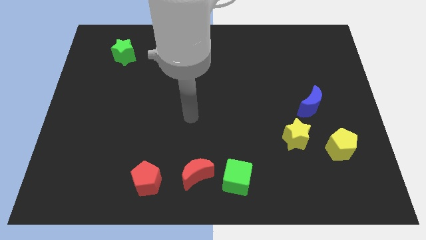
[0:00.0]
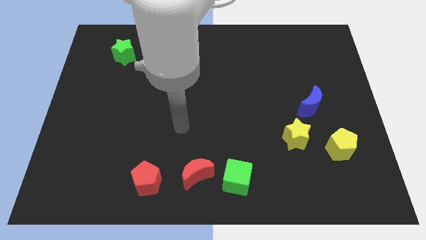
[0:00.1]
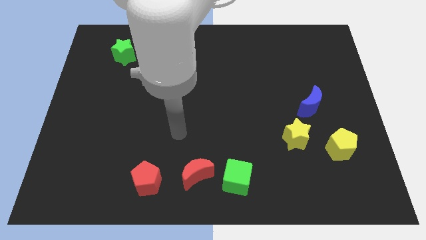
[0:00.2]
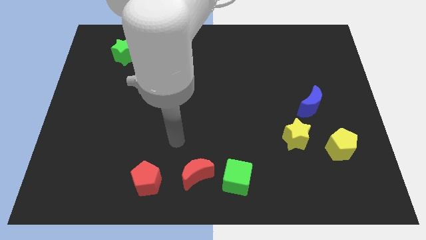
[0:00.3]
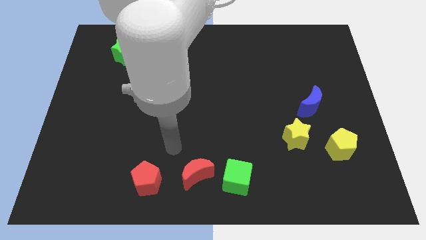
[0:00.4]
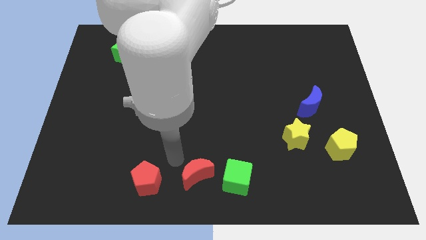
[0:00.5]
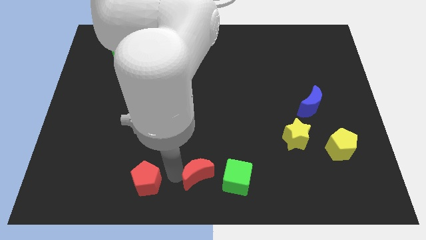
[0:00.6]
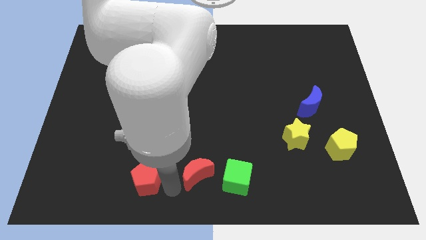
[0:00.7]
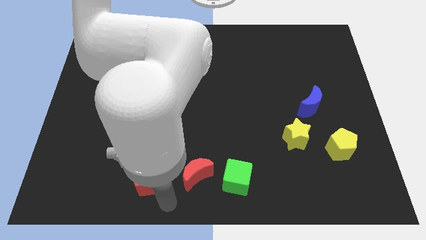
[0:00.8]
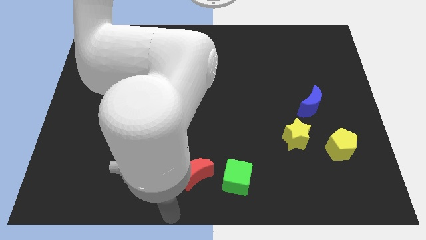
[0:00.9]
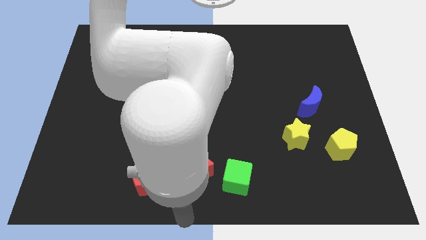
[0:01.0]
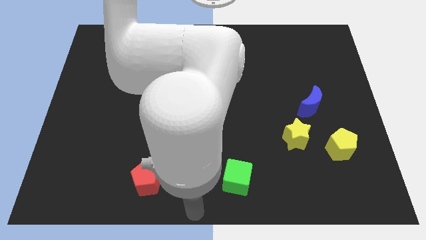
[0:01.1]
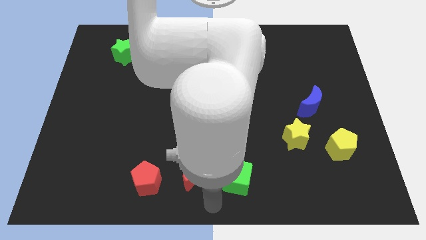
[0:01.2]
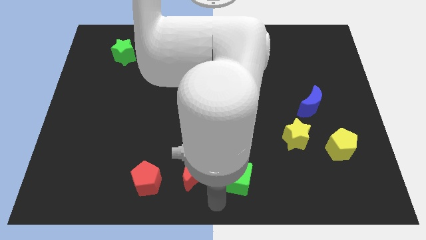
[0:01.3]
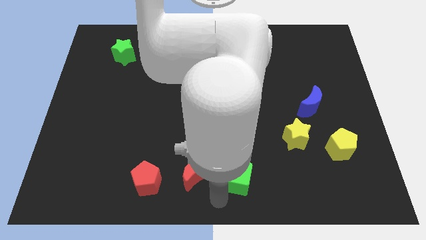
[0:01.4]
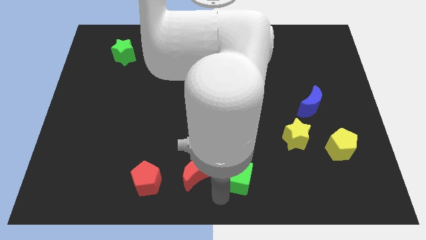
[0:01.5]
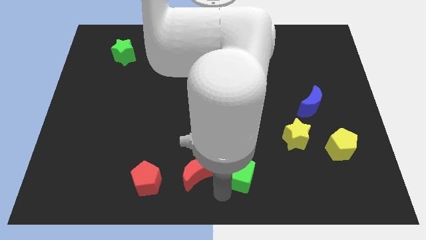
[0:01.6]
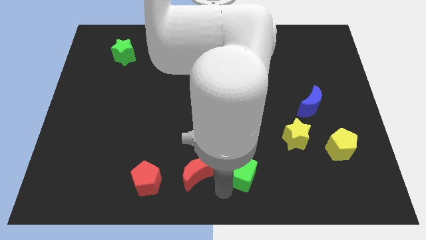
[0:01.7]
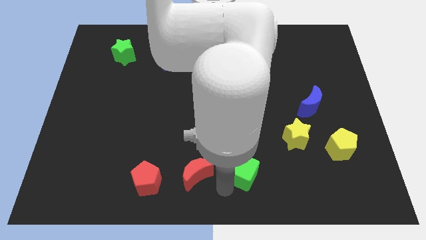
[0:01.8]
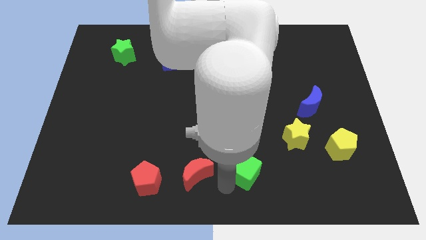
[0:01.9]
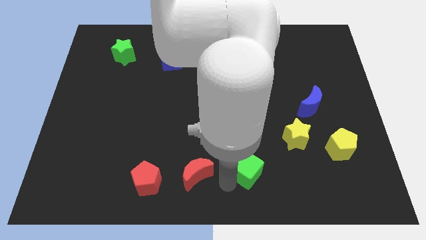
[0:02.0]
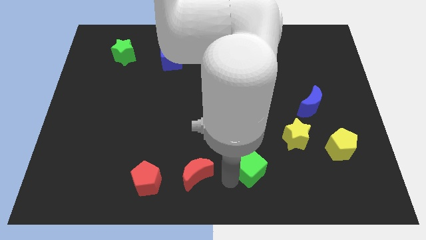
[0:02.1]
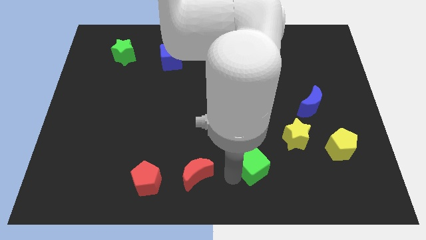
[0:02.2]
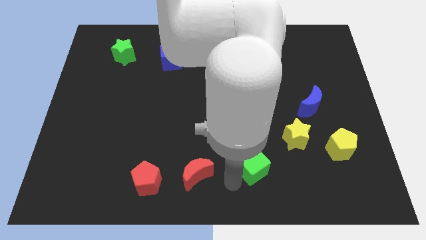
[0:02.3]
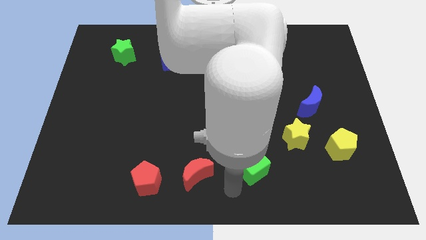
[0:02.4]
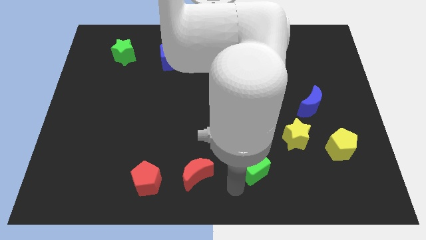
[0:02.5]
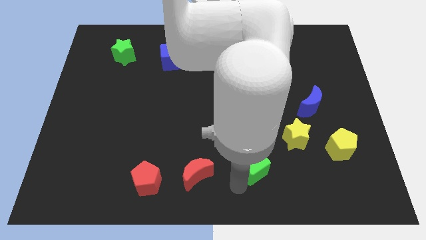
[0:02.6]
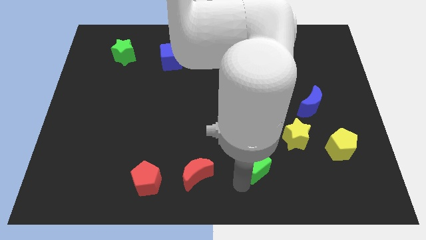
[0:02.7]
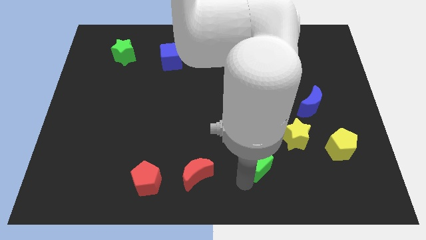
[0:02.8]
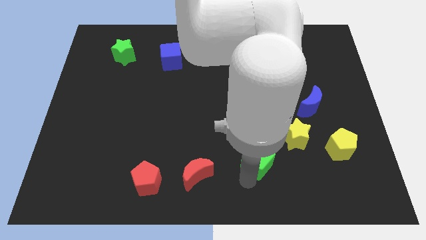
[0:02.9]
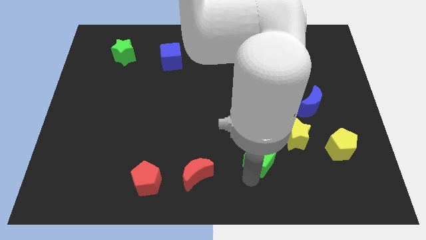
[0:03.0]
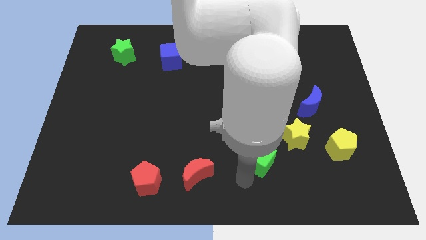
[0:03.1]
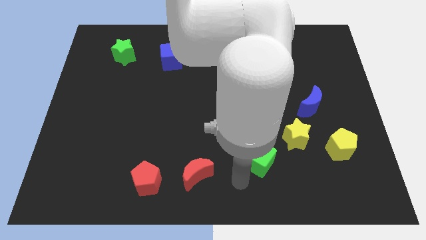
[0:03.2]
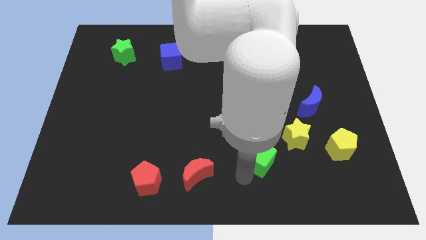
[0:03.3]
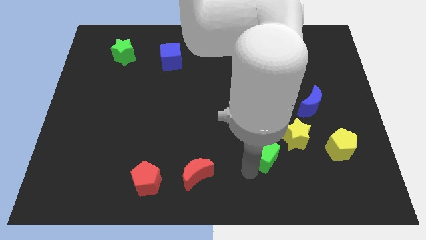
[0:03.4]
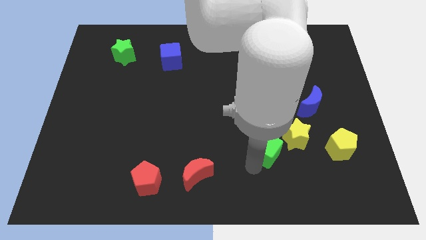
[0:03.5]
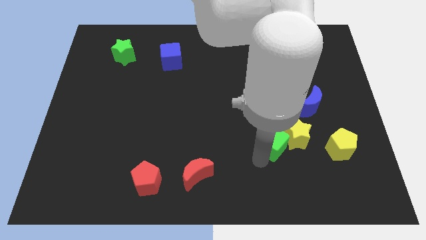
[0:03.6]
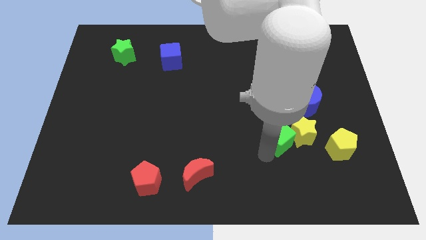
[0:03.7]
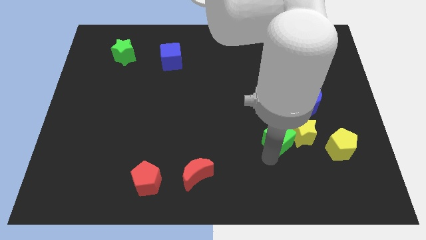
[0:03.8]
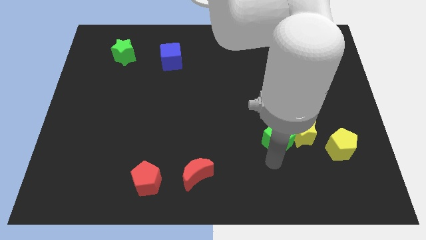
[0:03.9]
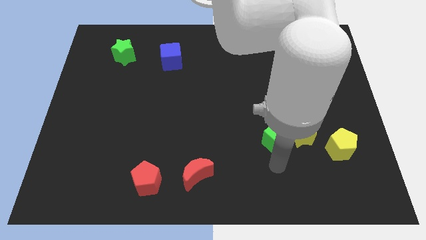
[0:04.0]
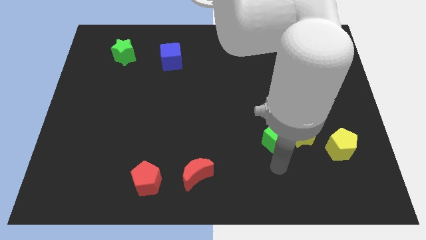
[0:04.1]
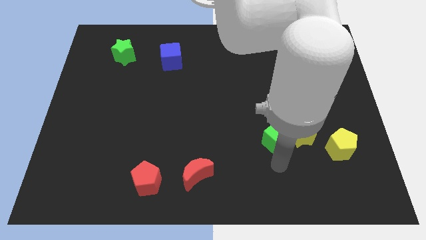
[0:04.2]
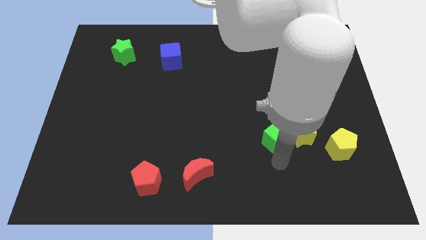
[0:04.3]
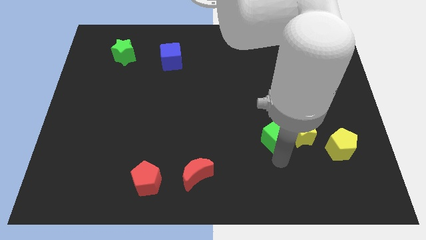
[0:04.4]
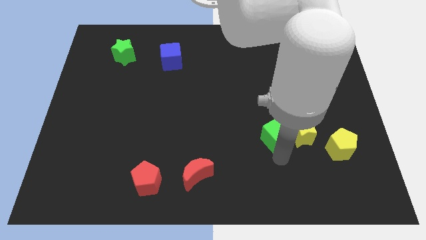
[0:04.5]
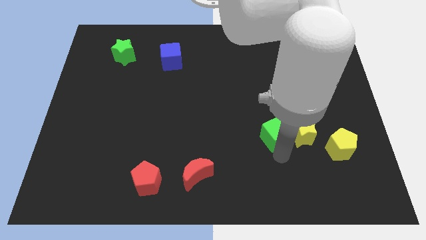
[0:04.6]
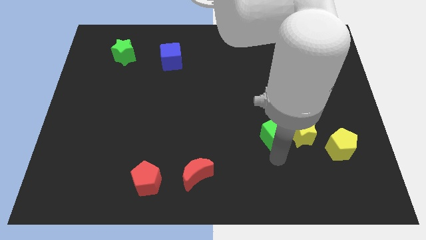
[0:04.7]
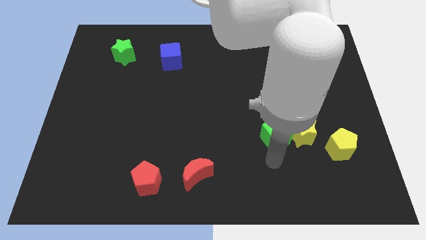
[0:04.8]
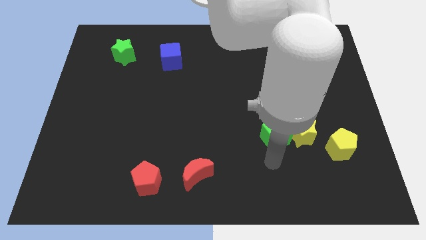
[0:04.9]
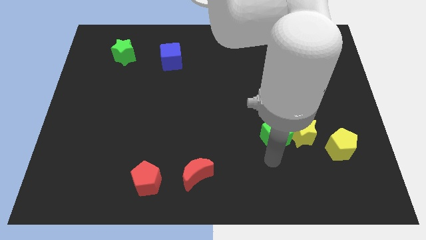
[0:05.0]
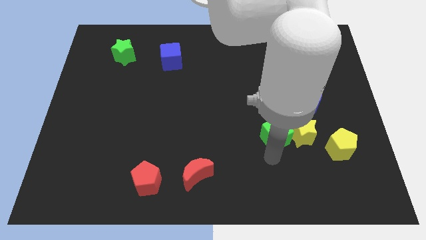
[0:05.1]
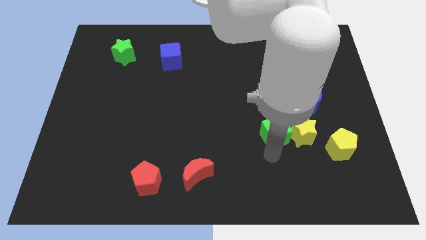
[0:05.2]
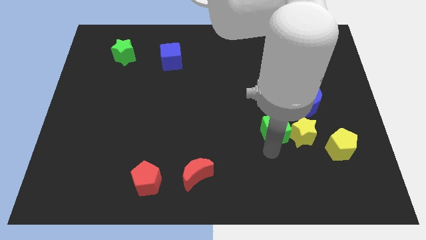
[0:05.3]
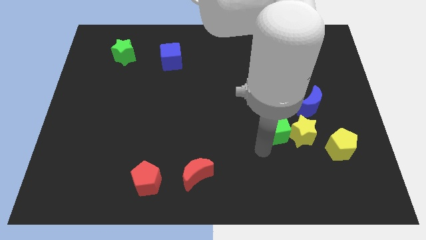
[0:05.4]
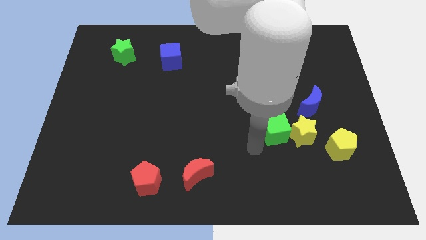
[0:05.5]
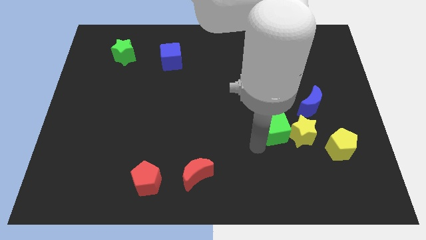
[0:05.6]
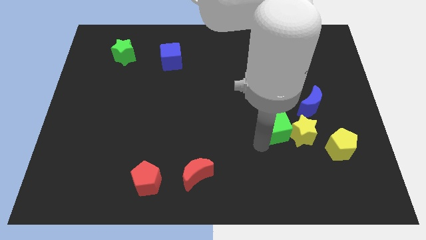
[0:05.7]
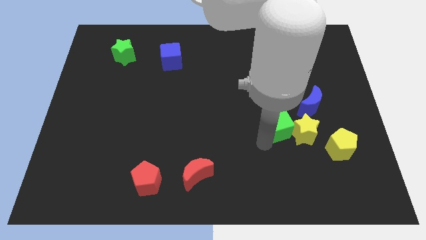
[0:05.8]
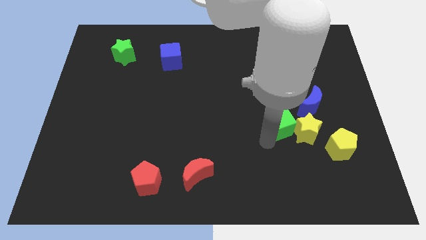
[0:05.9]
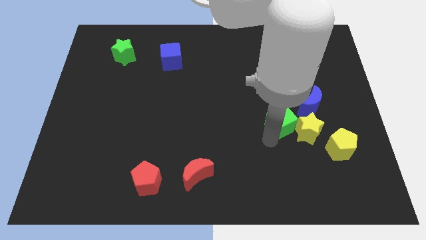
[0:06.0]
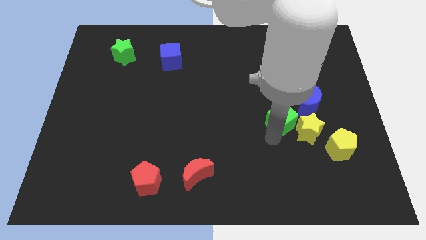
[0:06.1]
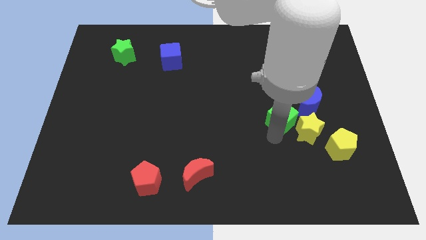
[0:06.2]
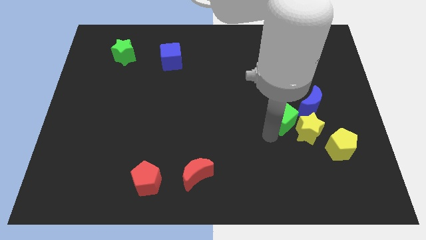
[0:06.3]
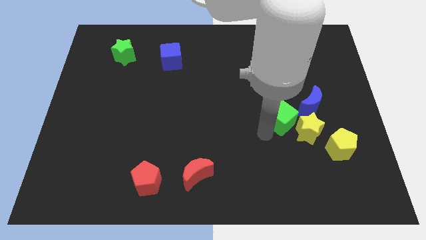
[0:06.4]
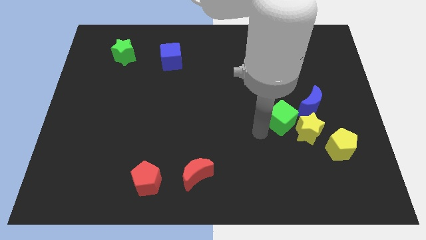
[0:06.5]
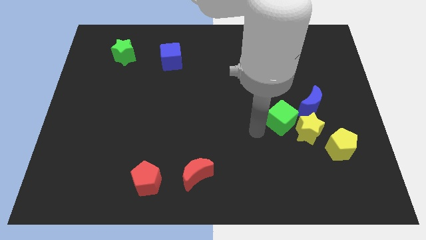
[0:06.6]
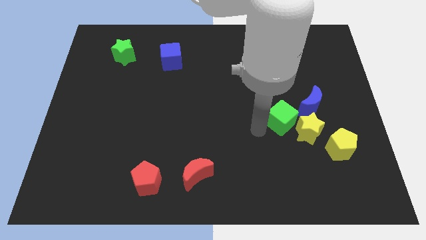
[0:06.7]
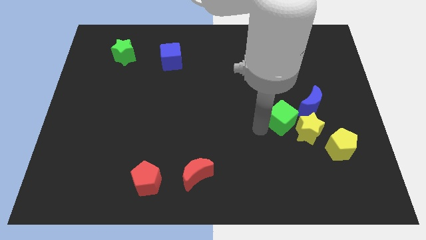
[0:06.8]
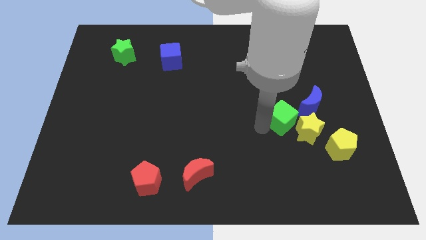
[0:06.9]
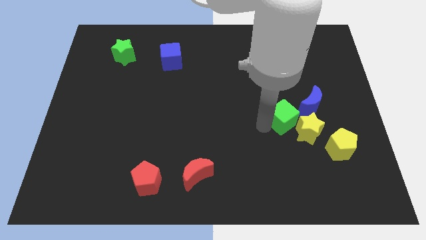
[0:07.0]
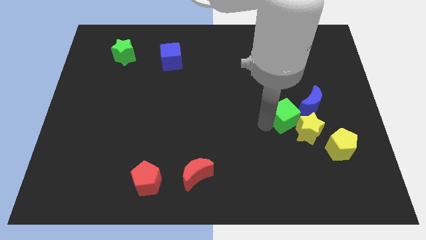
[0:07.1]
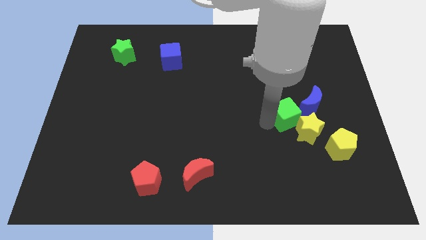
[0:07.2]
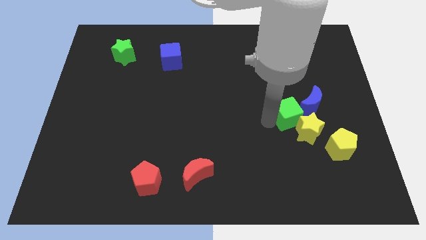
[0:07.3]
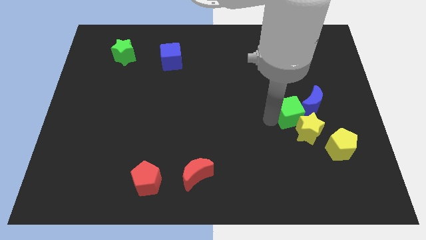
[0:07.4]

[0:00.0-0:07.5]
push the green cube to the blue moon
